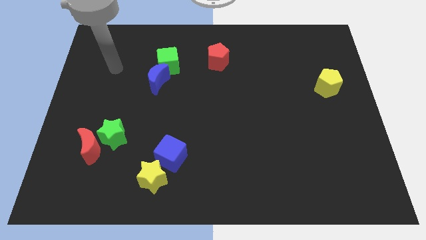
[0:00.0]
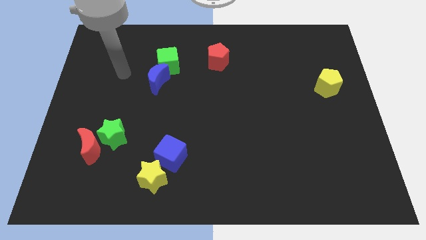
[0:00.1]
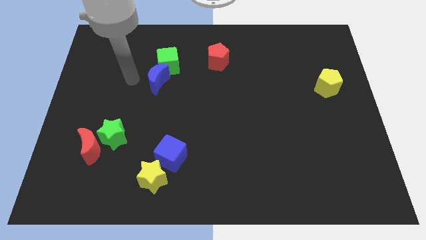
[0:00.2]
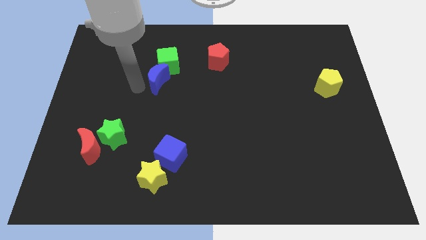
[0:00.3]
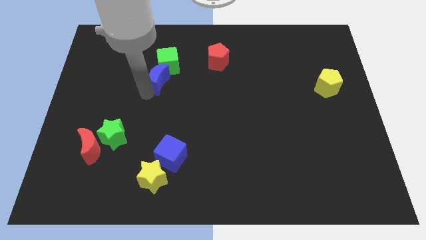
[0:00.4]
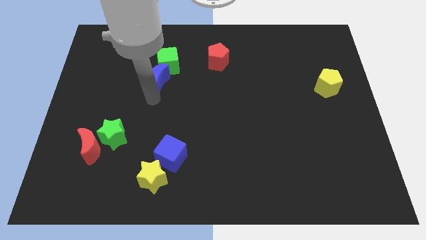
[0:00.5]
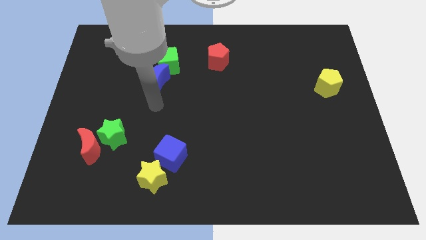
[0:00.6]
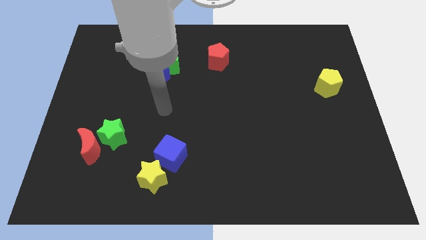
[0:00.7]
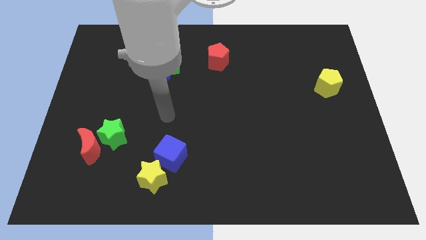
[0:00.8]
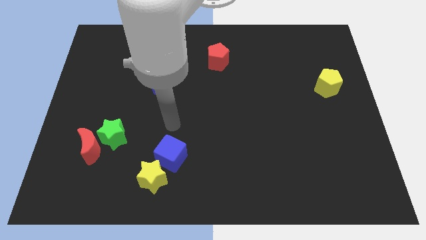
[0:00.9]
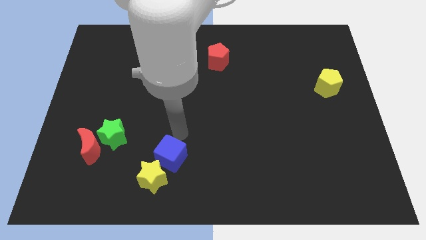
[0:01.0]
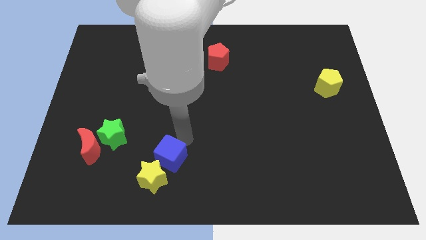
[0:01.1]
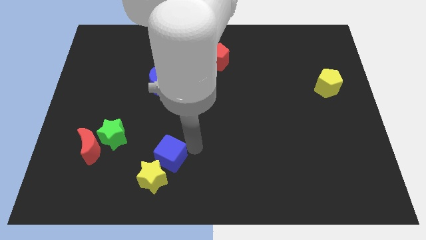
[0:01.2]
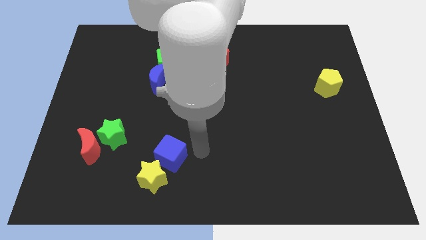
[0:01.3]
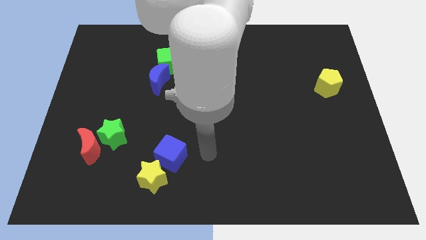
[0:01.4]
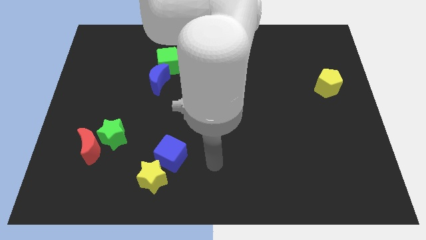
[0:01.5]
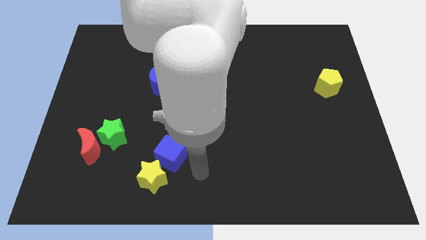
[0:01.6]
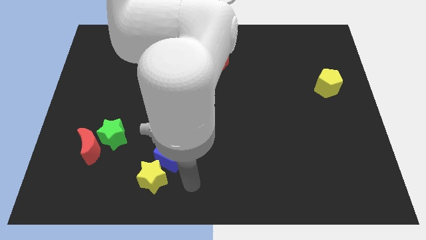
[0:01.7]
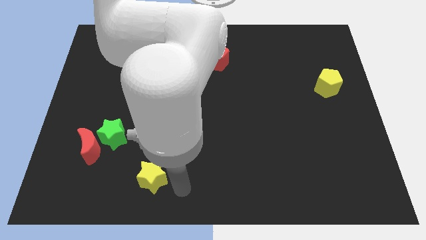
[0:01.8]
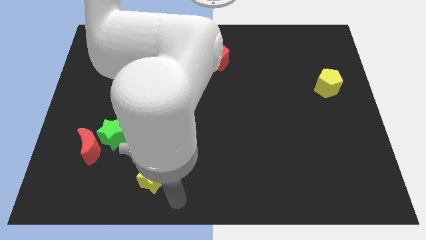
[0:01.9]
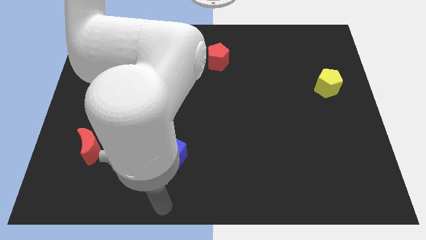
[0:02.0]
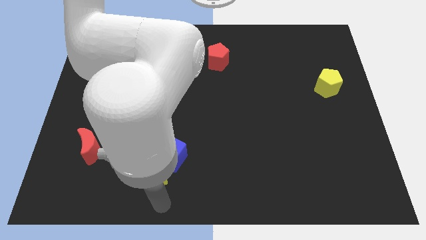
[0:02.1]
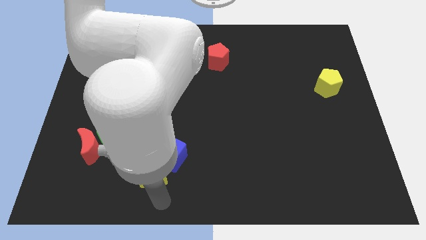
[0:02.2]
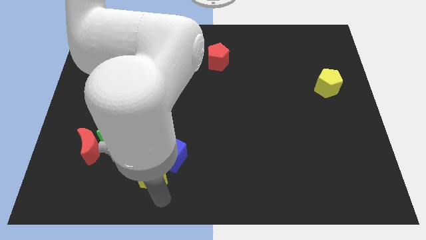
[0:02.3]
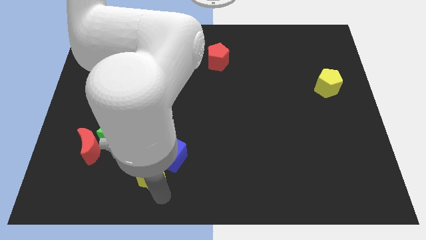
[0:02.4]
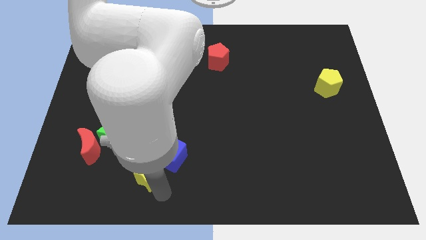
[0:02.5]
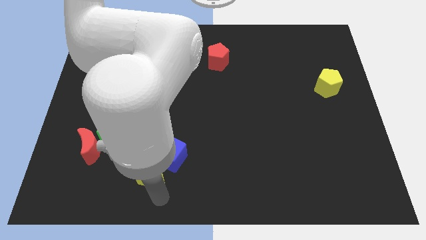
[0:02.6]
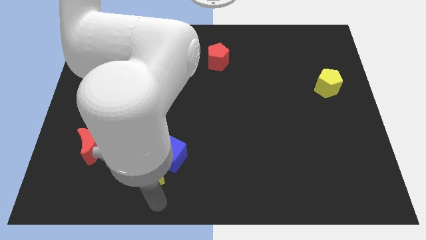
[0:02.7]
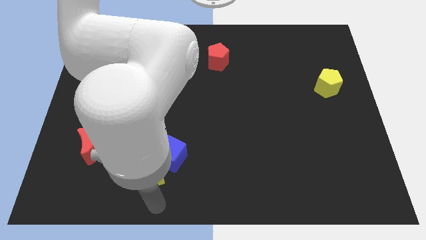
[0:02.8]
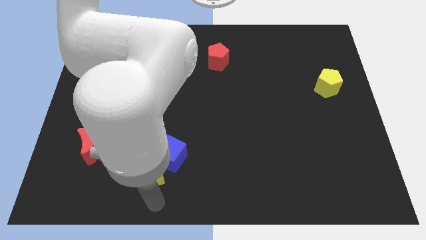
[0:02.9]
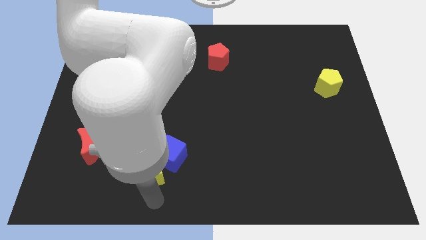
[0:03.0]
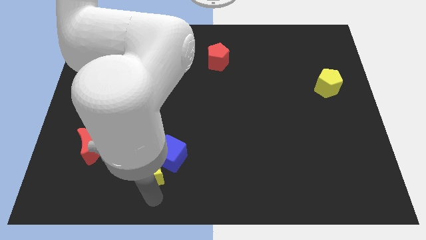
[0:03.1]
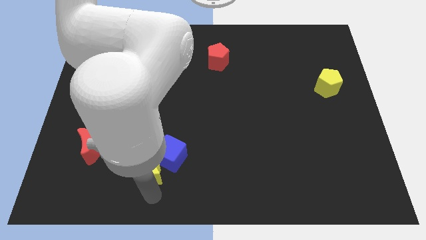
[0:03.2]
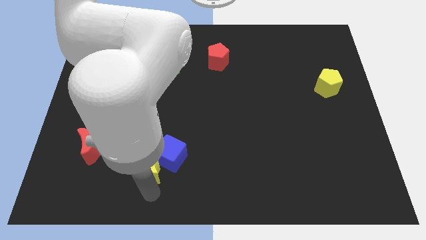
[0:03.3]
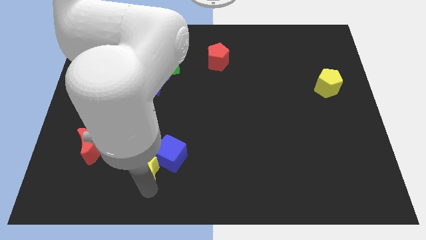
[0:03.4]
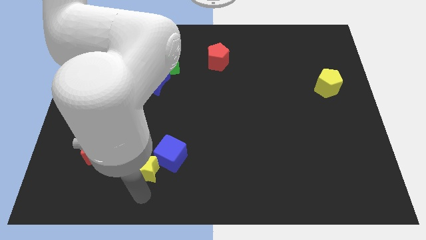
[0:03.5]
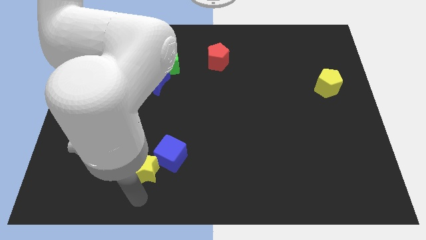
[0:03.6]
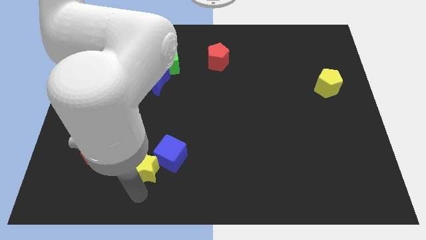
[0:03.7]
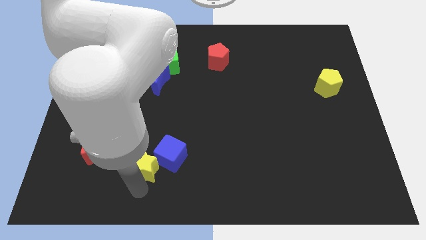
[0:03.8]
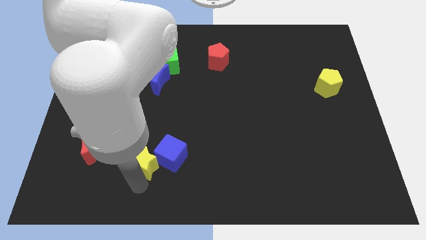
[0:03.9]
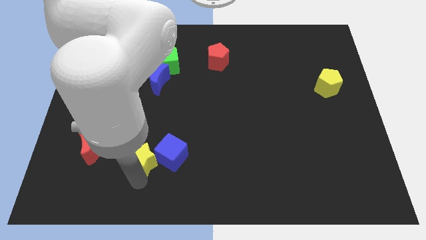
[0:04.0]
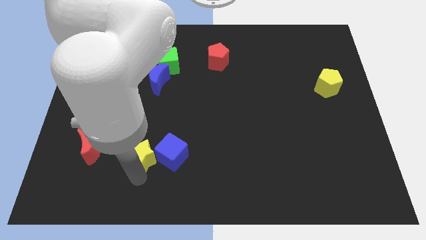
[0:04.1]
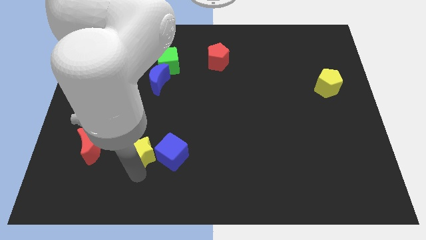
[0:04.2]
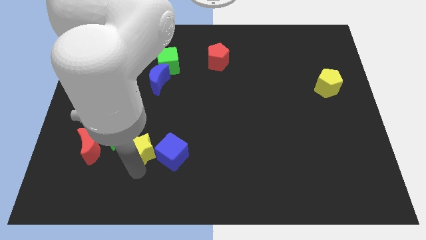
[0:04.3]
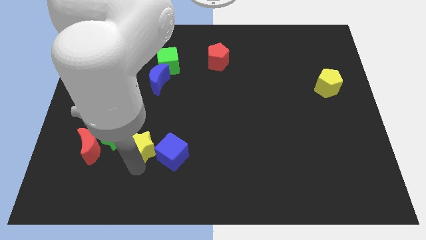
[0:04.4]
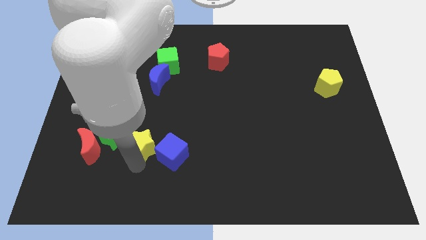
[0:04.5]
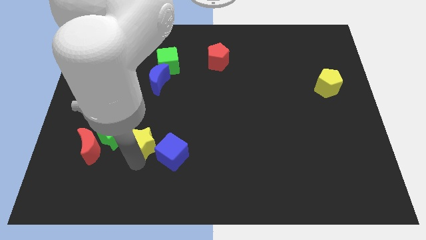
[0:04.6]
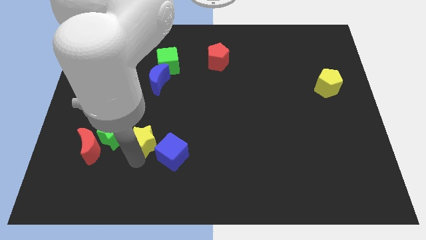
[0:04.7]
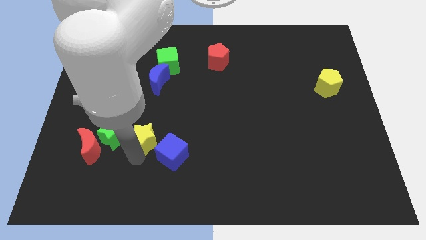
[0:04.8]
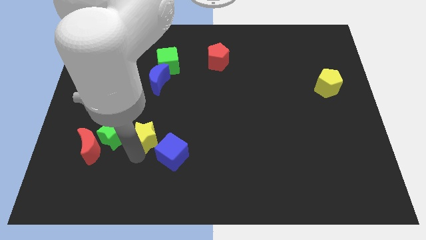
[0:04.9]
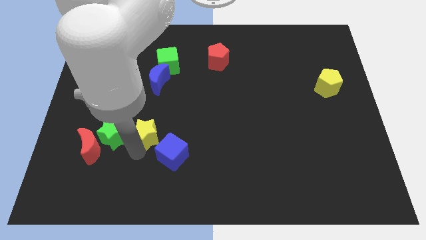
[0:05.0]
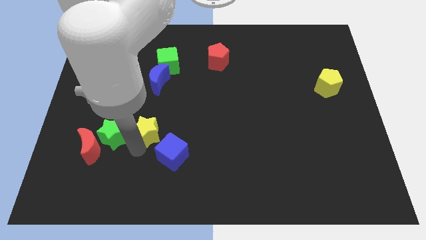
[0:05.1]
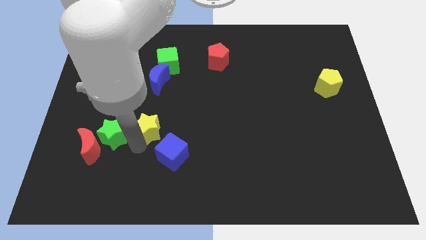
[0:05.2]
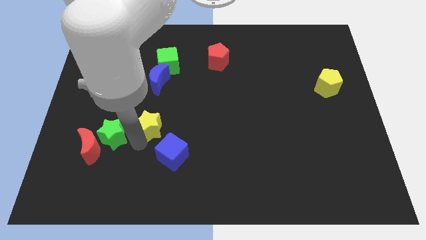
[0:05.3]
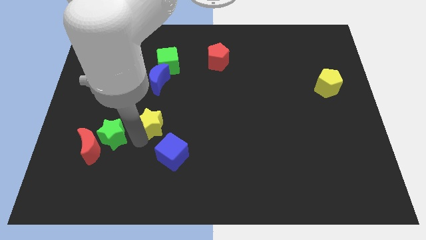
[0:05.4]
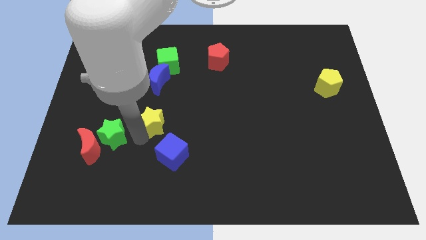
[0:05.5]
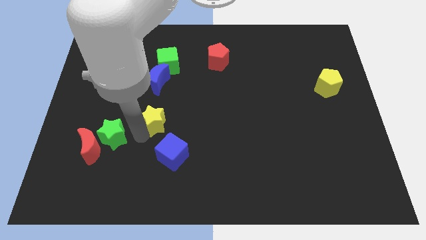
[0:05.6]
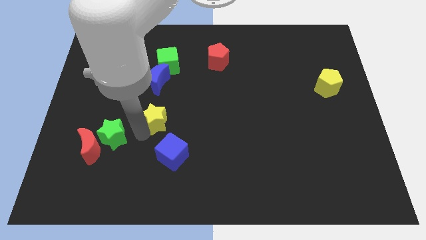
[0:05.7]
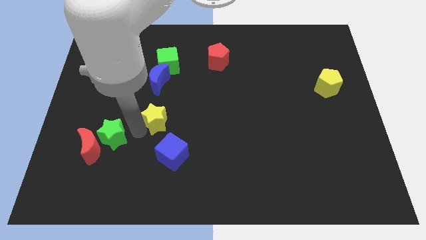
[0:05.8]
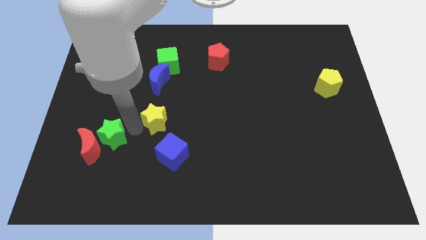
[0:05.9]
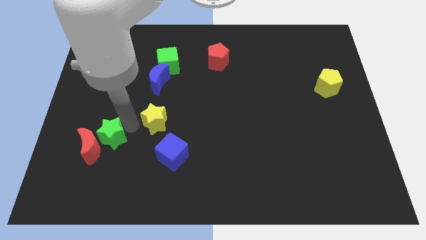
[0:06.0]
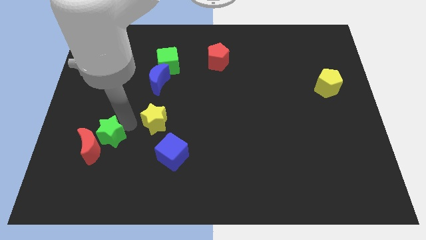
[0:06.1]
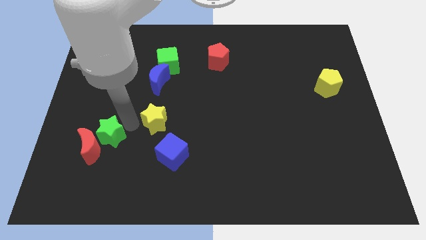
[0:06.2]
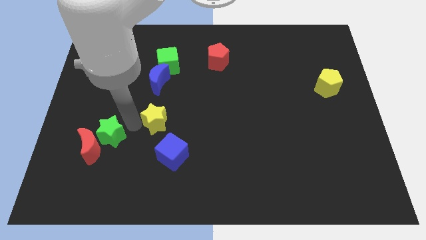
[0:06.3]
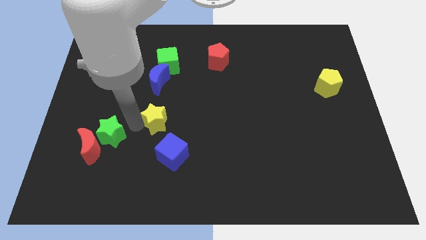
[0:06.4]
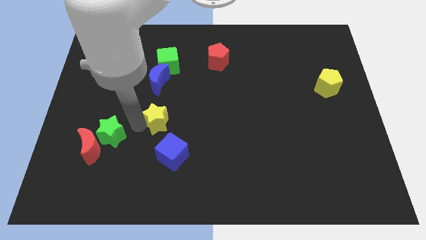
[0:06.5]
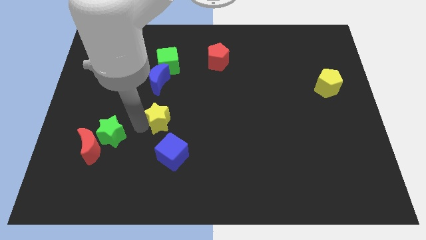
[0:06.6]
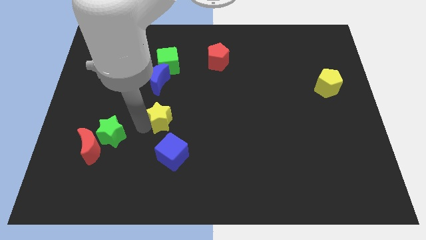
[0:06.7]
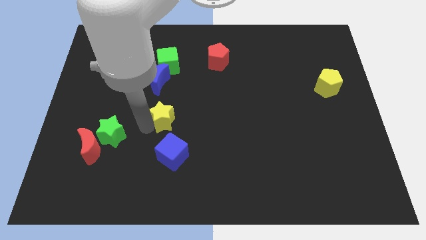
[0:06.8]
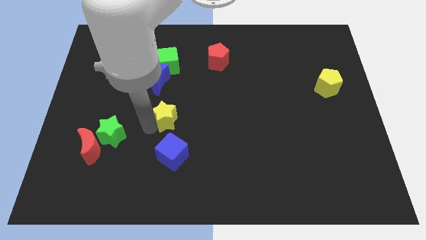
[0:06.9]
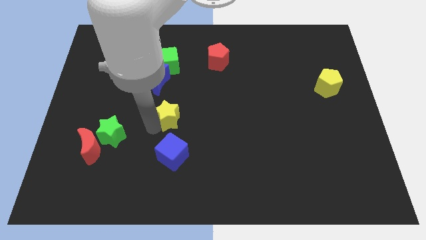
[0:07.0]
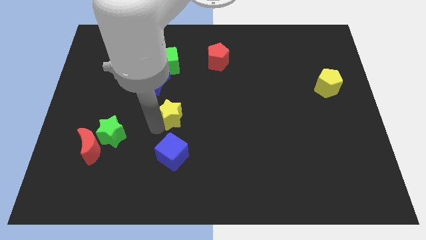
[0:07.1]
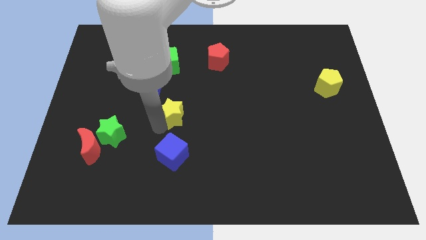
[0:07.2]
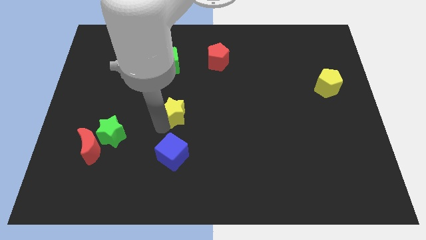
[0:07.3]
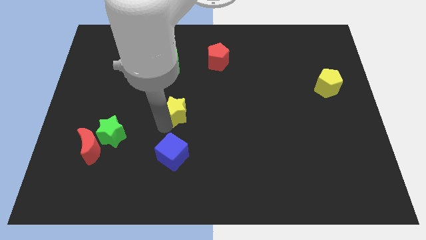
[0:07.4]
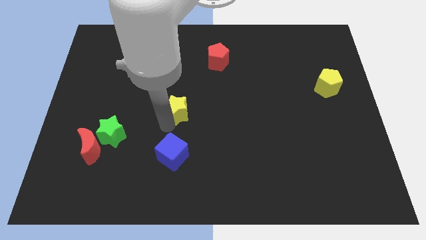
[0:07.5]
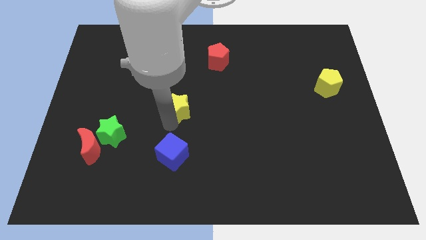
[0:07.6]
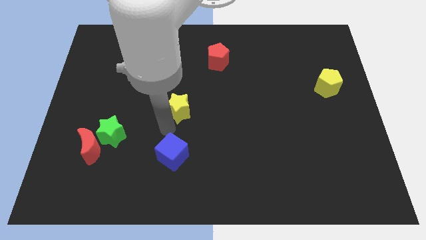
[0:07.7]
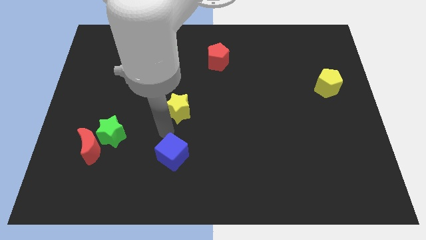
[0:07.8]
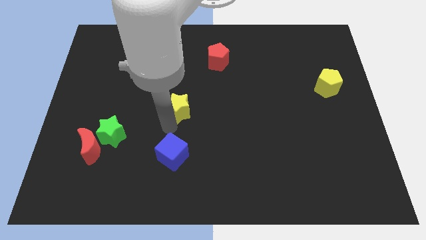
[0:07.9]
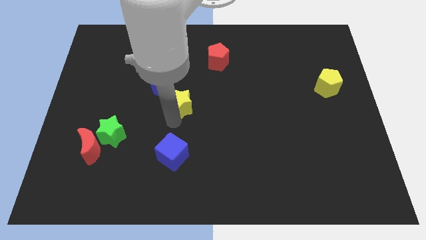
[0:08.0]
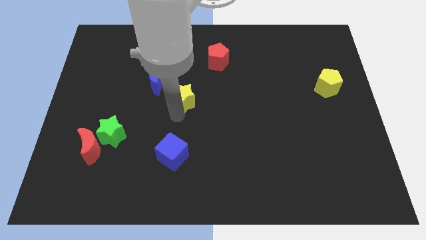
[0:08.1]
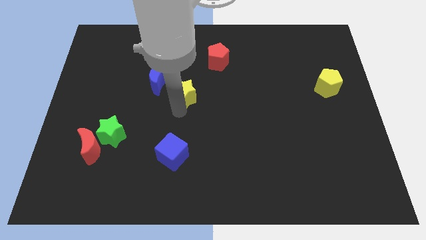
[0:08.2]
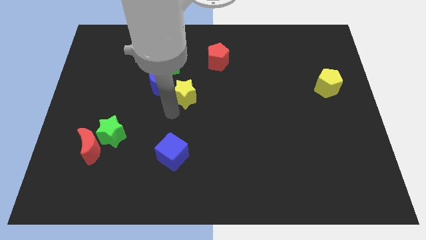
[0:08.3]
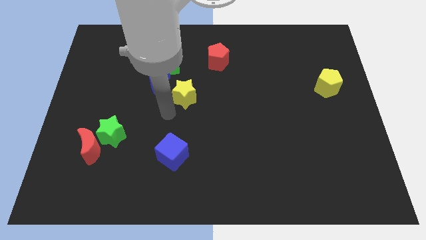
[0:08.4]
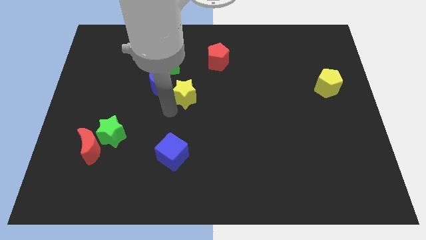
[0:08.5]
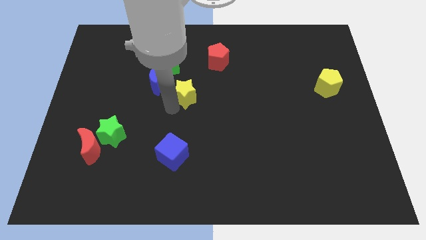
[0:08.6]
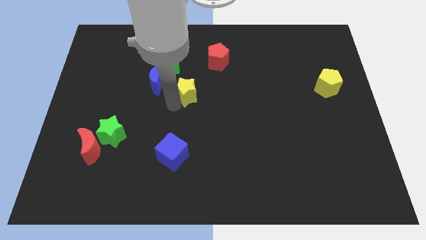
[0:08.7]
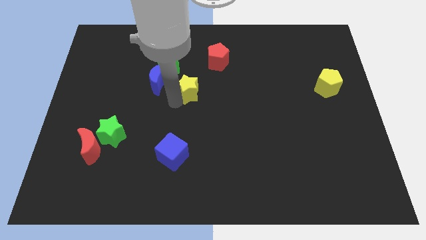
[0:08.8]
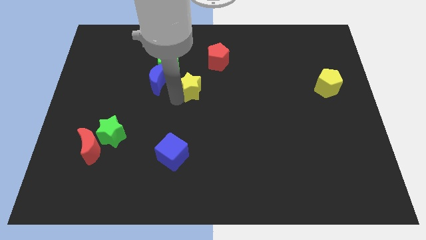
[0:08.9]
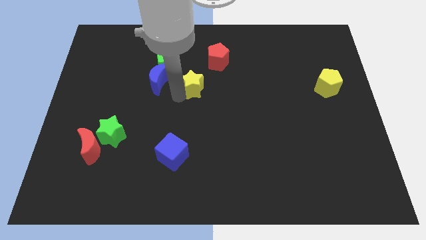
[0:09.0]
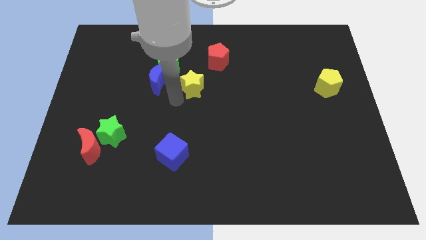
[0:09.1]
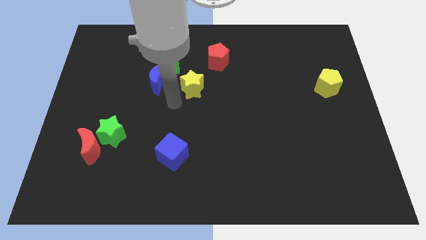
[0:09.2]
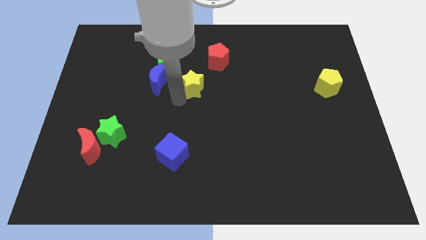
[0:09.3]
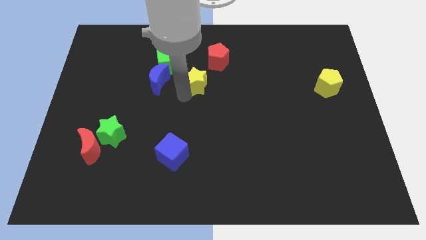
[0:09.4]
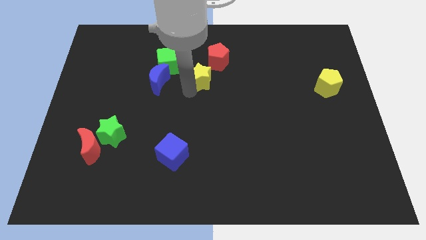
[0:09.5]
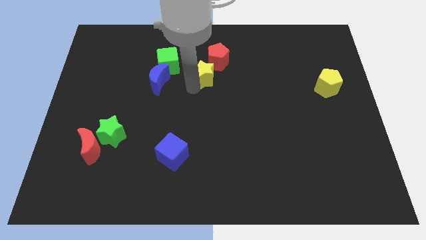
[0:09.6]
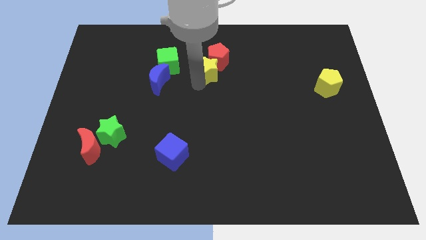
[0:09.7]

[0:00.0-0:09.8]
slide the yellow star close to the red pentagon
